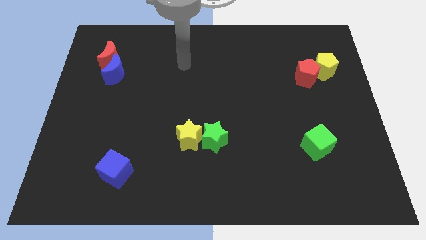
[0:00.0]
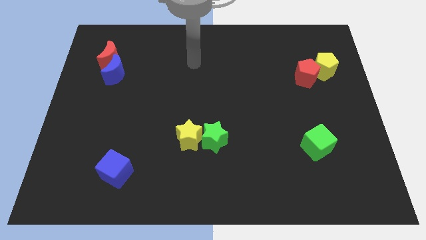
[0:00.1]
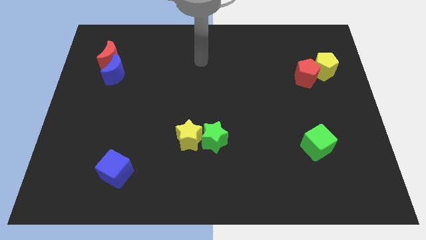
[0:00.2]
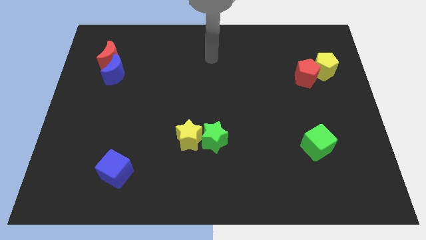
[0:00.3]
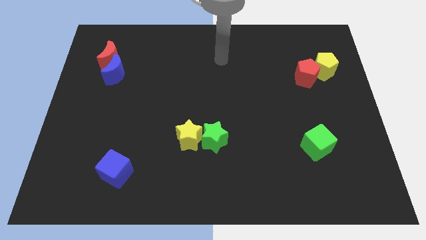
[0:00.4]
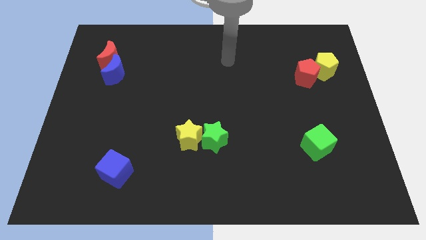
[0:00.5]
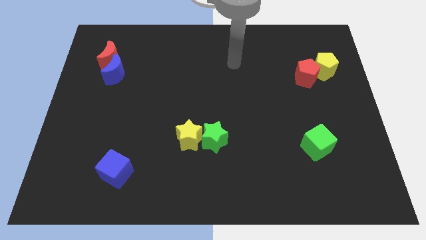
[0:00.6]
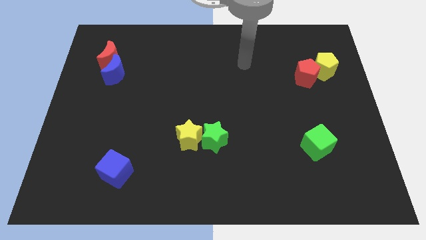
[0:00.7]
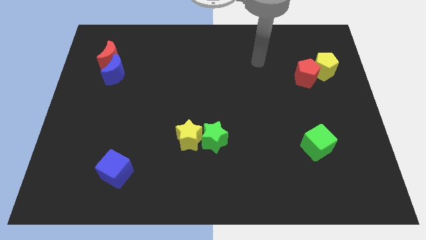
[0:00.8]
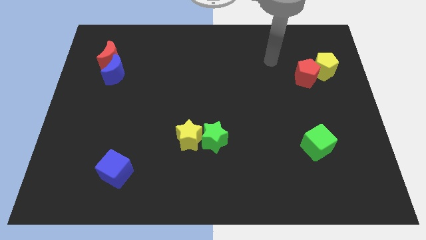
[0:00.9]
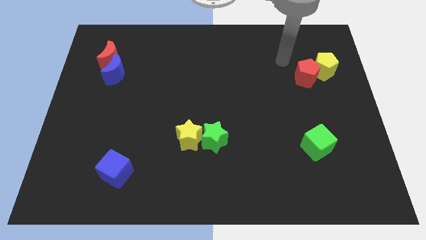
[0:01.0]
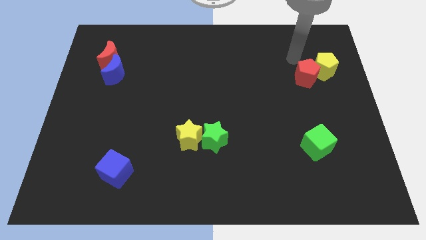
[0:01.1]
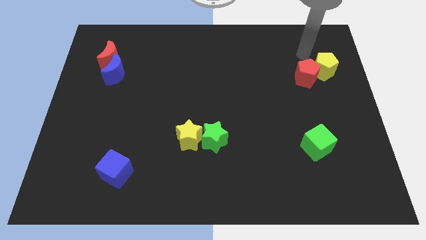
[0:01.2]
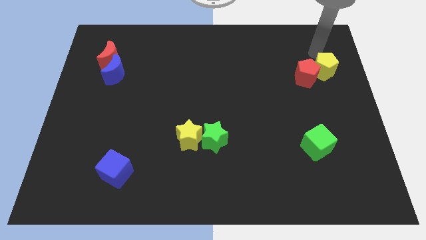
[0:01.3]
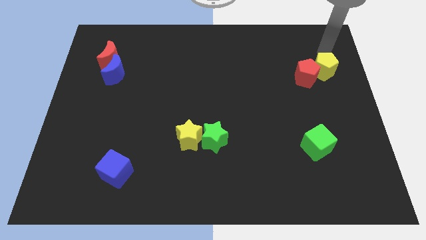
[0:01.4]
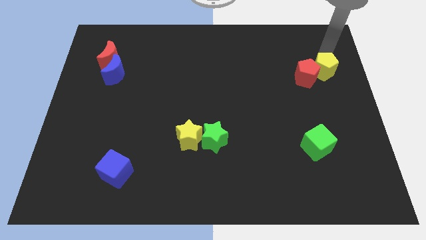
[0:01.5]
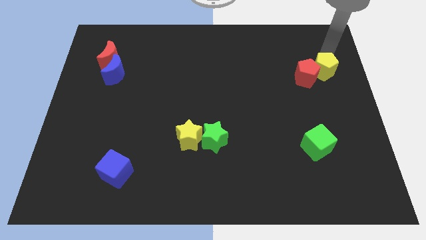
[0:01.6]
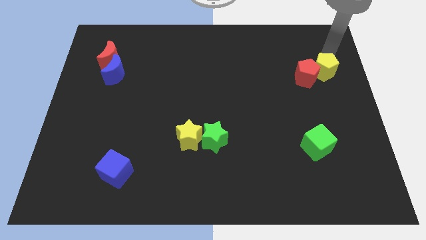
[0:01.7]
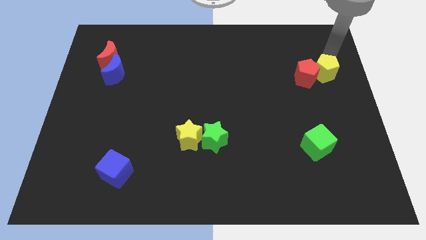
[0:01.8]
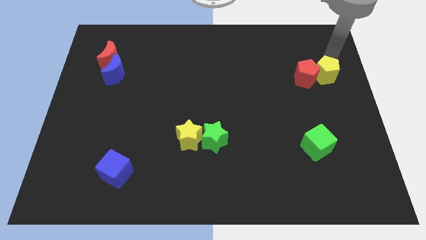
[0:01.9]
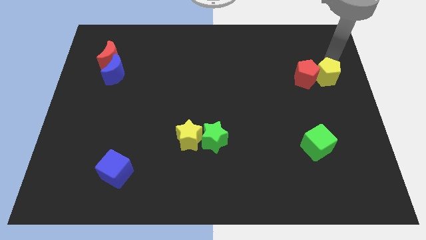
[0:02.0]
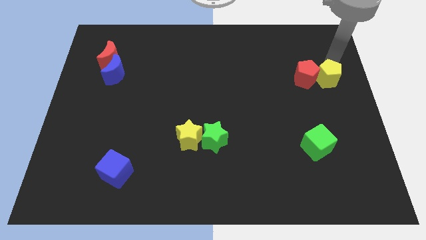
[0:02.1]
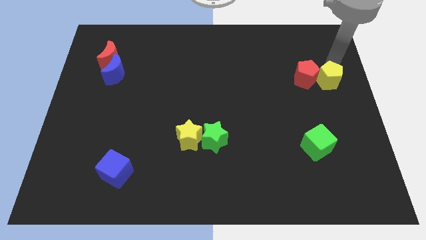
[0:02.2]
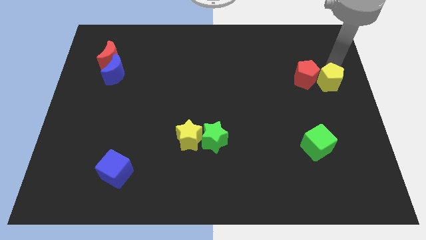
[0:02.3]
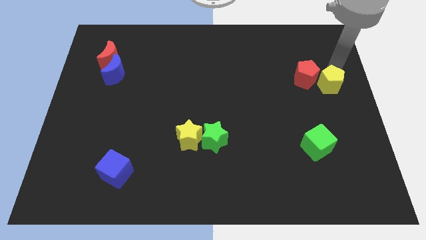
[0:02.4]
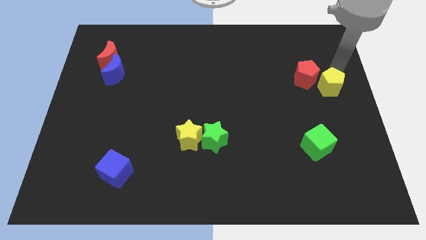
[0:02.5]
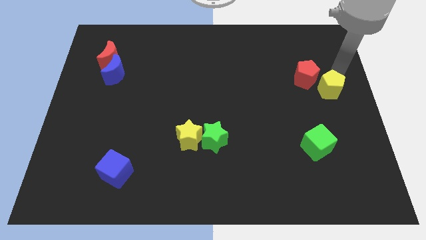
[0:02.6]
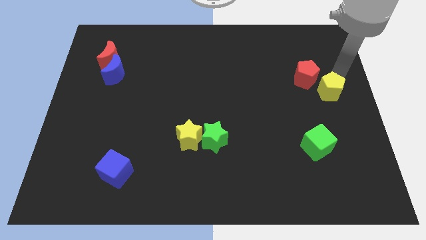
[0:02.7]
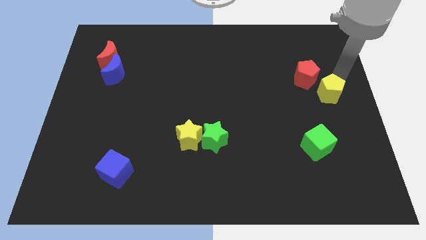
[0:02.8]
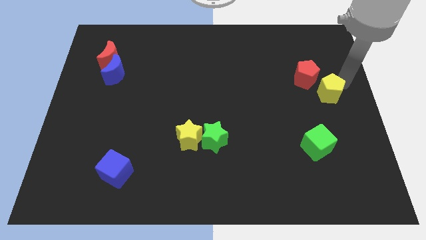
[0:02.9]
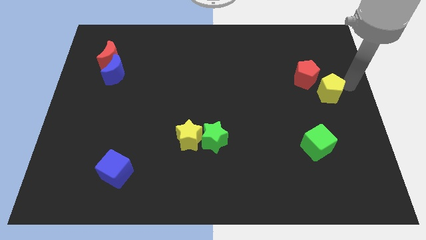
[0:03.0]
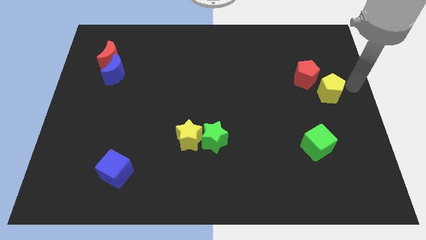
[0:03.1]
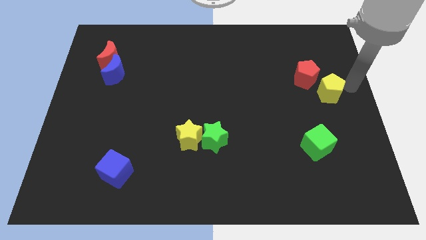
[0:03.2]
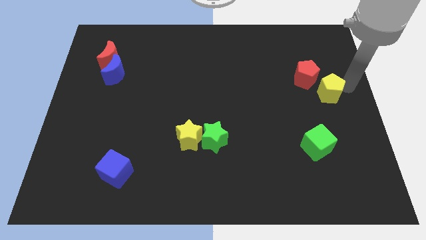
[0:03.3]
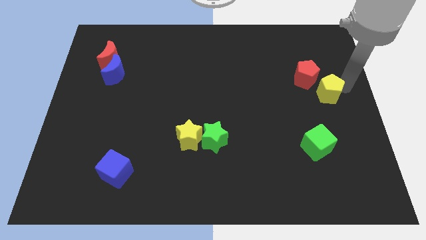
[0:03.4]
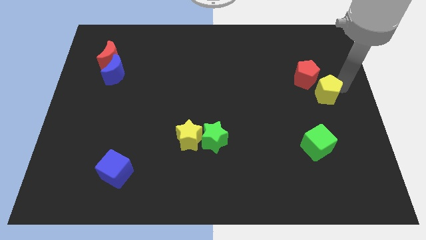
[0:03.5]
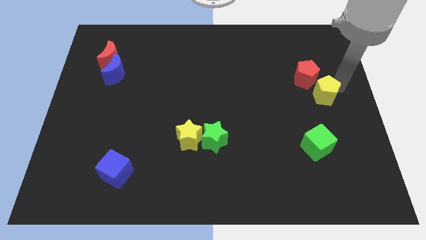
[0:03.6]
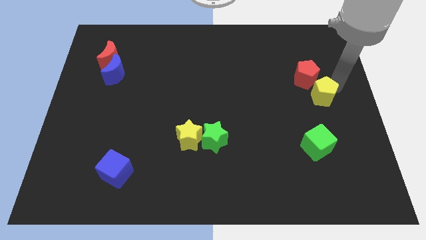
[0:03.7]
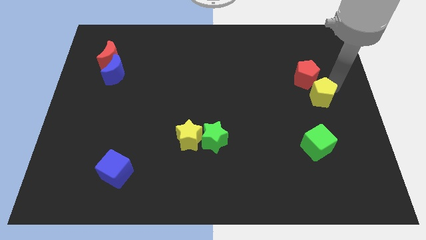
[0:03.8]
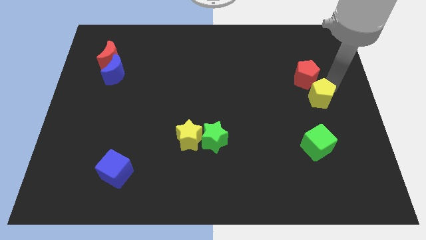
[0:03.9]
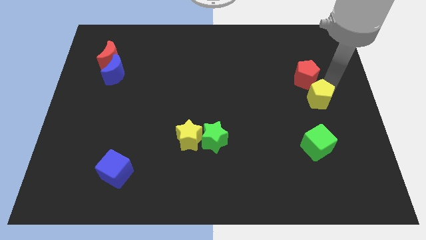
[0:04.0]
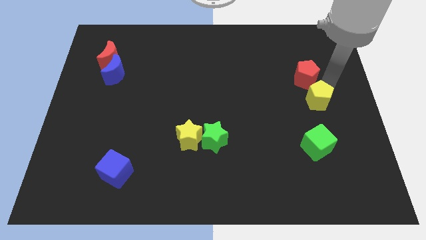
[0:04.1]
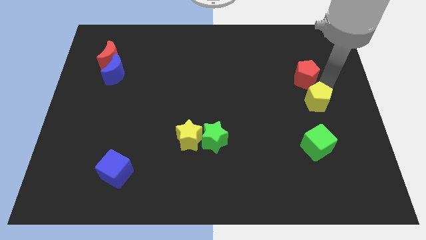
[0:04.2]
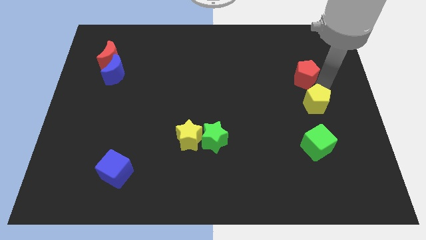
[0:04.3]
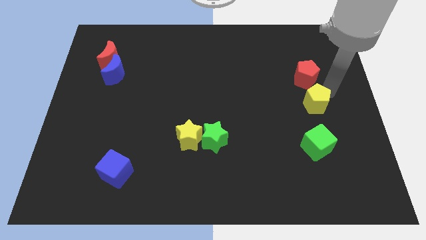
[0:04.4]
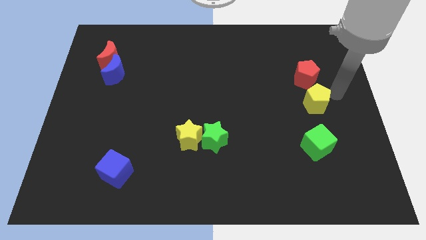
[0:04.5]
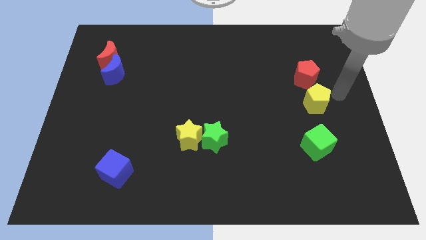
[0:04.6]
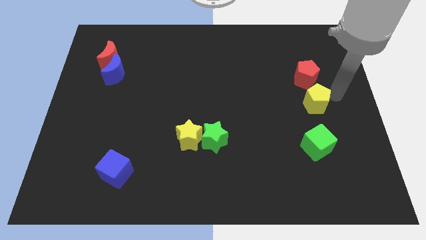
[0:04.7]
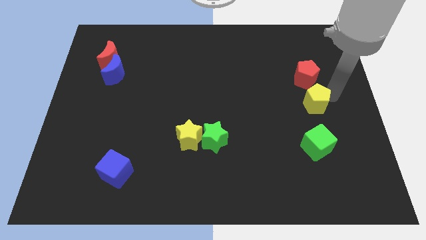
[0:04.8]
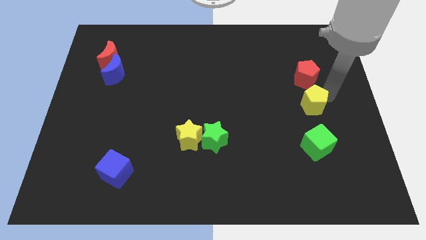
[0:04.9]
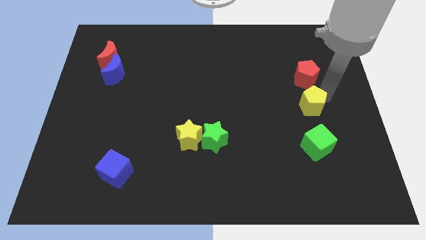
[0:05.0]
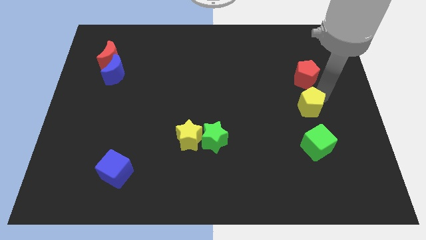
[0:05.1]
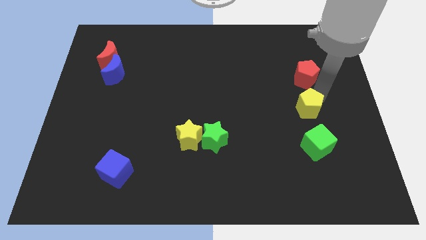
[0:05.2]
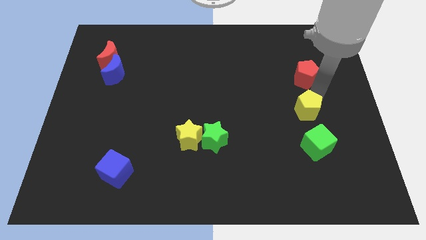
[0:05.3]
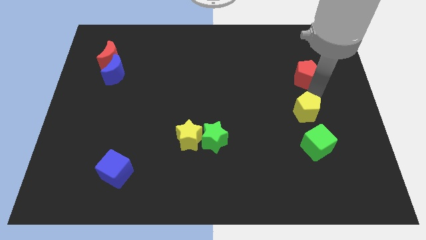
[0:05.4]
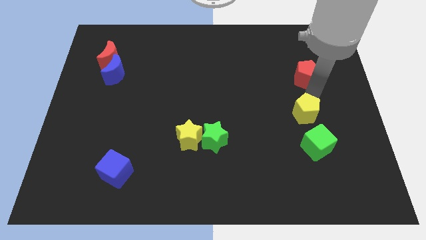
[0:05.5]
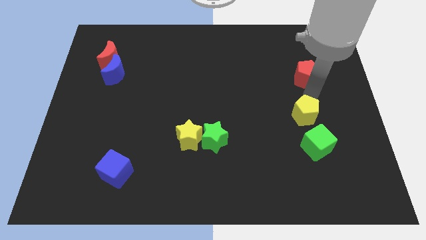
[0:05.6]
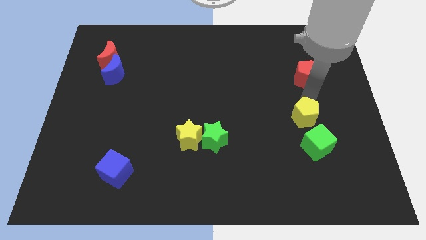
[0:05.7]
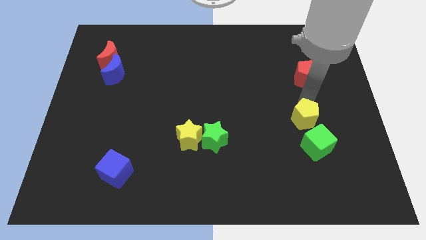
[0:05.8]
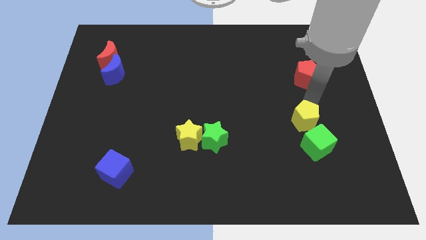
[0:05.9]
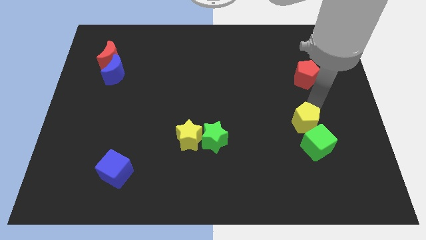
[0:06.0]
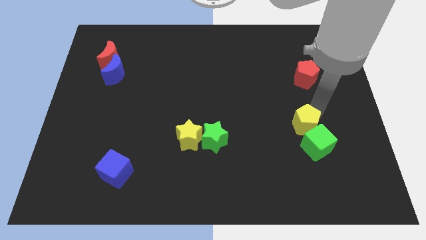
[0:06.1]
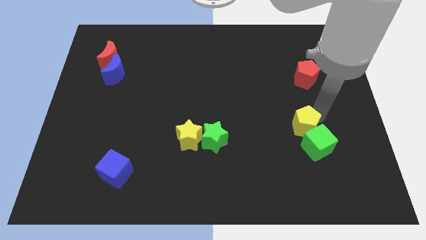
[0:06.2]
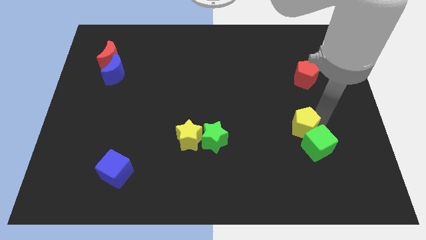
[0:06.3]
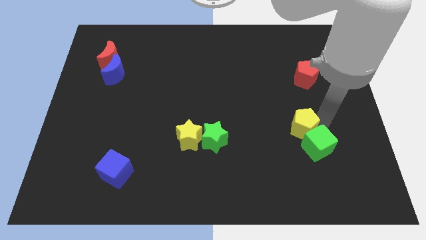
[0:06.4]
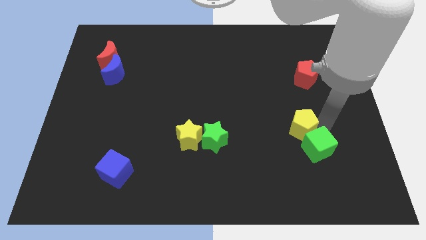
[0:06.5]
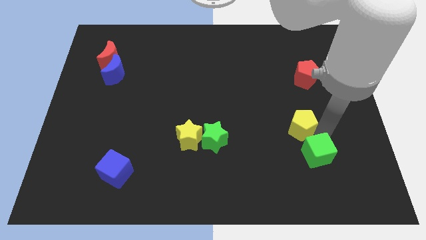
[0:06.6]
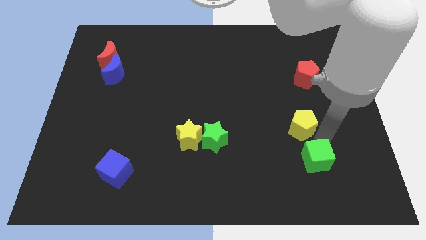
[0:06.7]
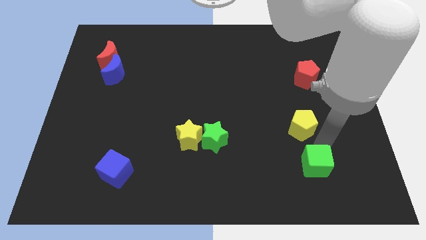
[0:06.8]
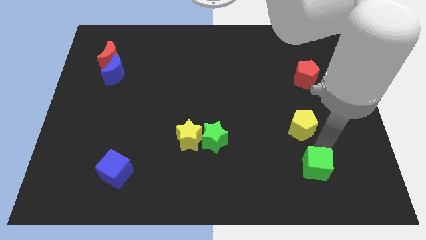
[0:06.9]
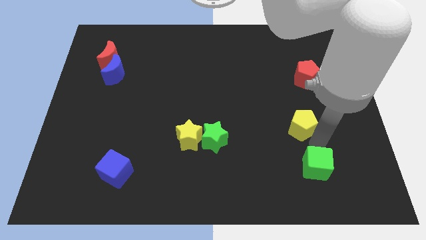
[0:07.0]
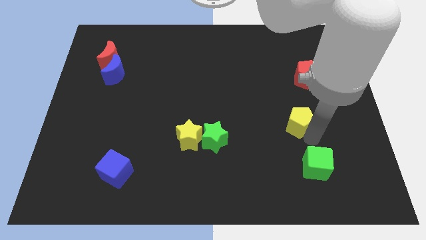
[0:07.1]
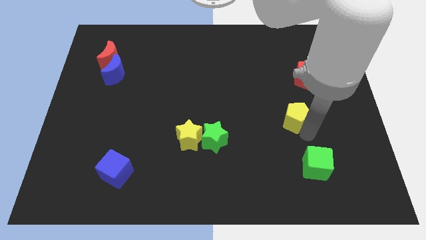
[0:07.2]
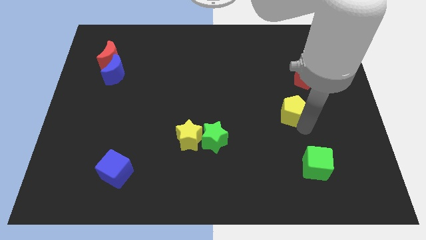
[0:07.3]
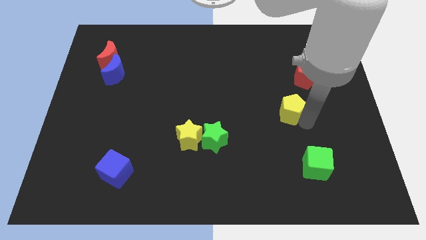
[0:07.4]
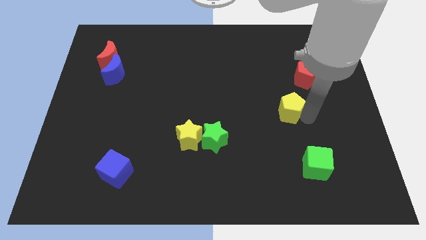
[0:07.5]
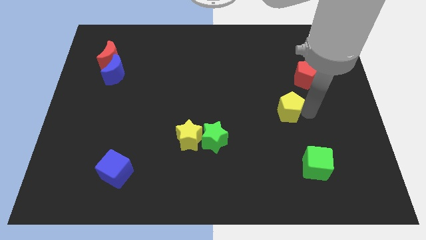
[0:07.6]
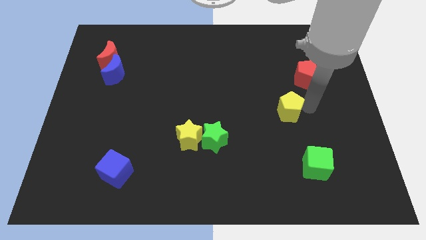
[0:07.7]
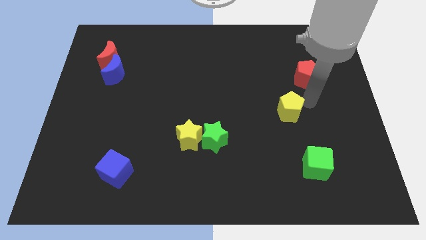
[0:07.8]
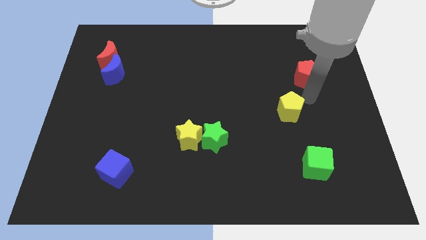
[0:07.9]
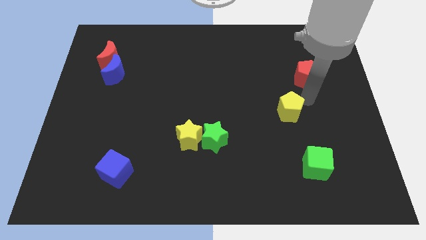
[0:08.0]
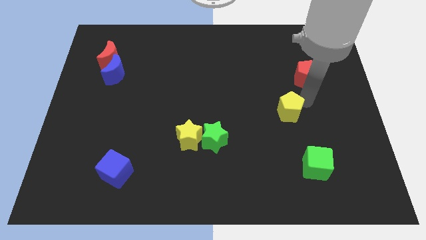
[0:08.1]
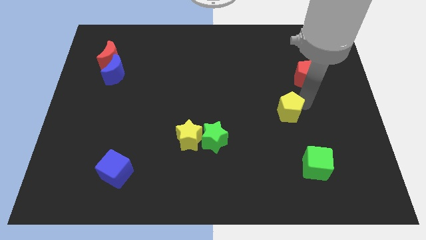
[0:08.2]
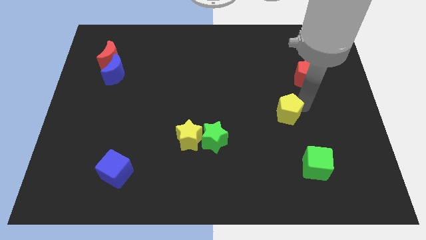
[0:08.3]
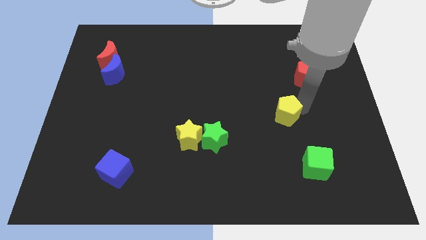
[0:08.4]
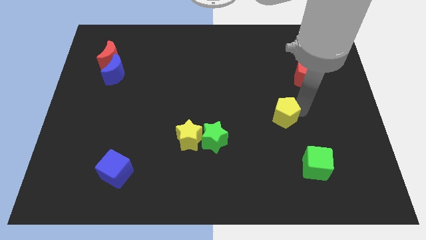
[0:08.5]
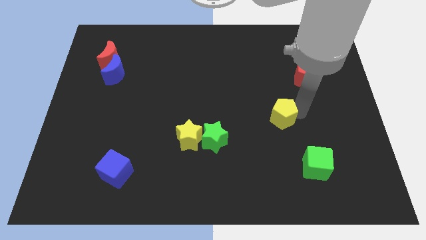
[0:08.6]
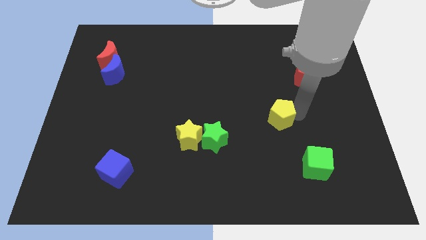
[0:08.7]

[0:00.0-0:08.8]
push the yellow pentagon downwards and then to the left
